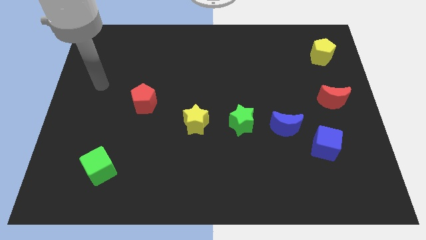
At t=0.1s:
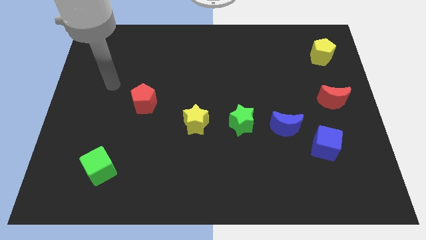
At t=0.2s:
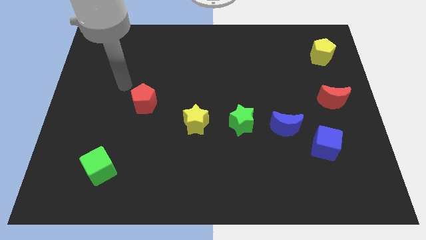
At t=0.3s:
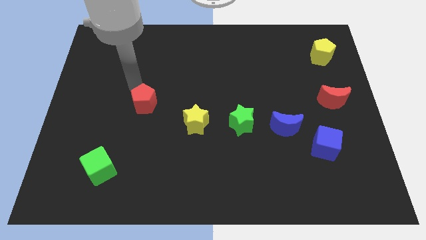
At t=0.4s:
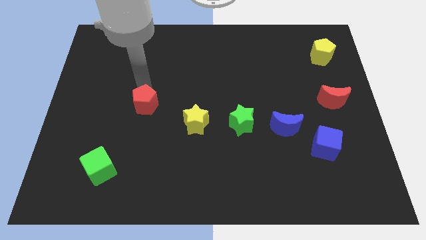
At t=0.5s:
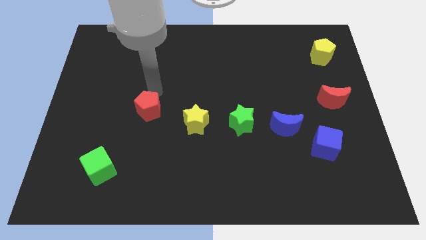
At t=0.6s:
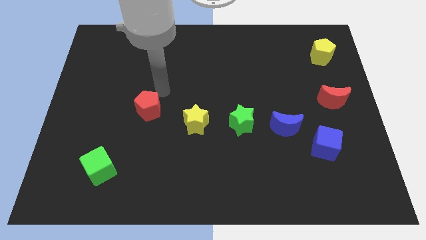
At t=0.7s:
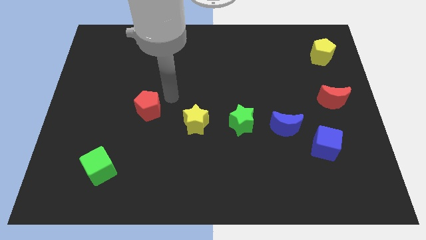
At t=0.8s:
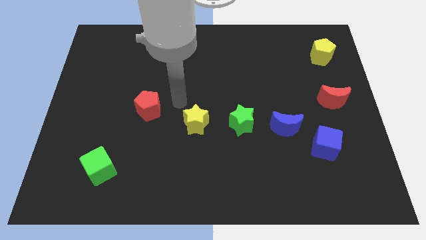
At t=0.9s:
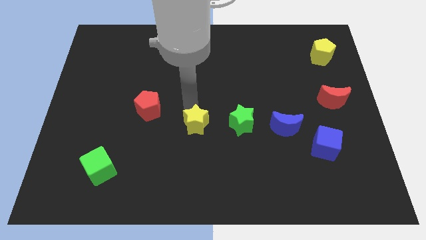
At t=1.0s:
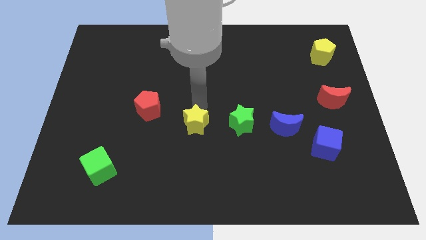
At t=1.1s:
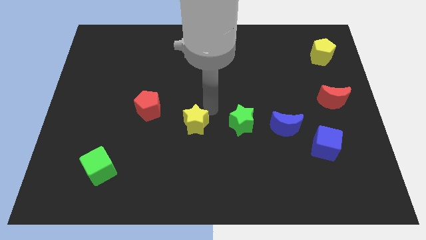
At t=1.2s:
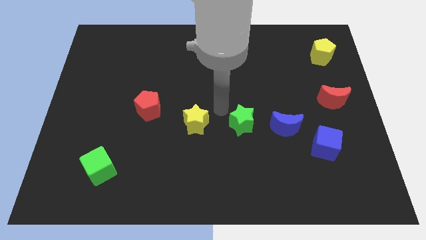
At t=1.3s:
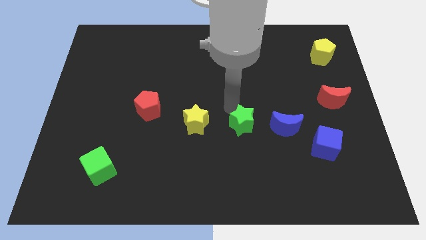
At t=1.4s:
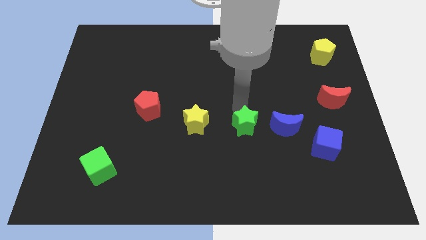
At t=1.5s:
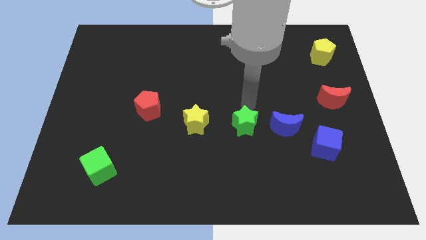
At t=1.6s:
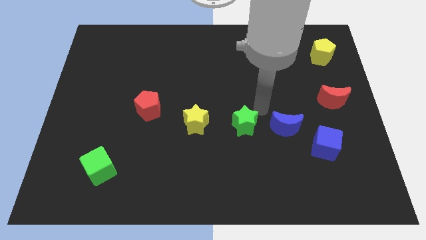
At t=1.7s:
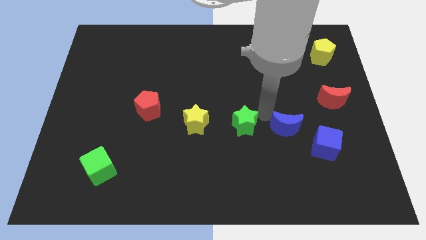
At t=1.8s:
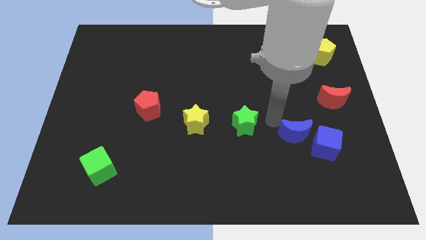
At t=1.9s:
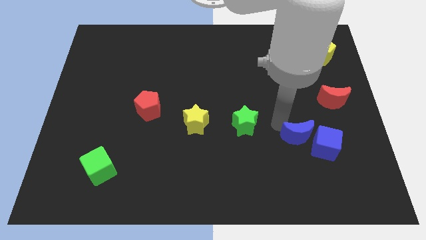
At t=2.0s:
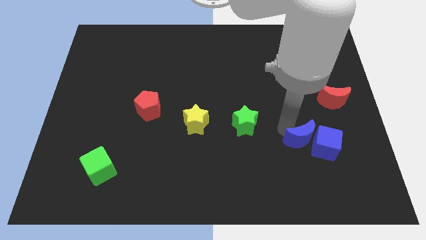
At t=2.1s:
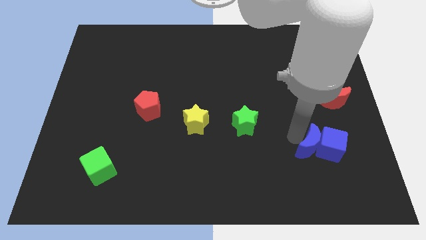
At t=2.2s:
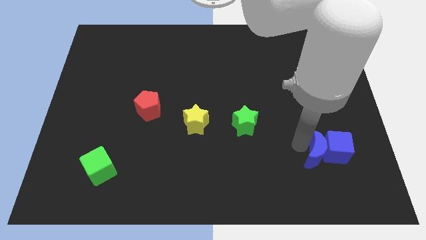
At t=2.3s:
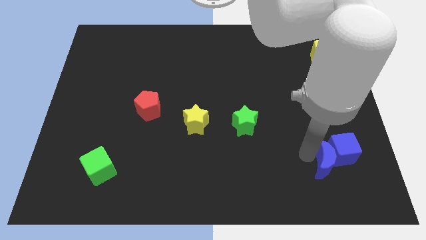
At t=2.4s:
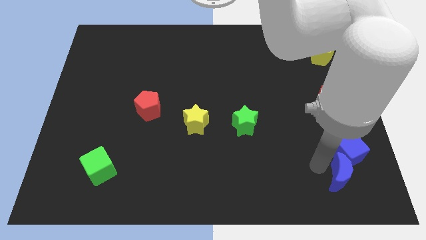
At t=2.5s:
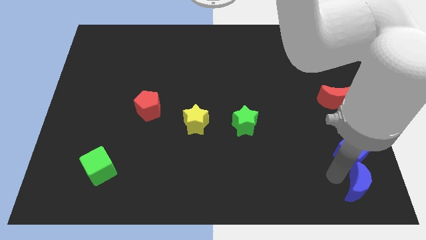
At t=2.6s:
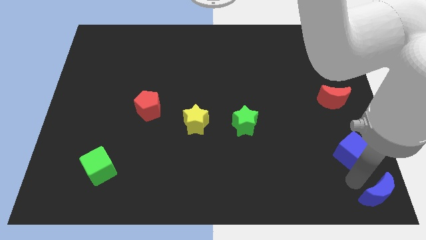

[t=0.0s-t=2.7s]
pull the blue cube apart from the blue moon

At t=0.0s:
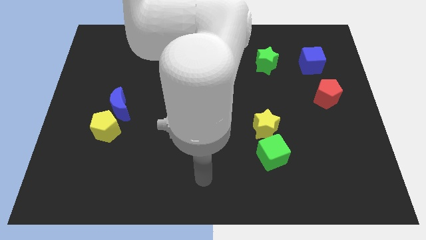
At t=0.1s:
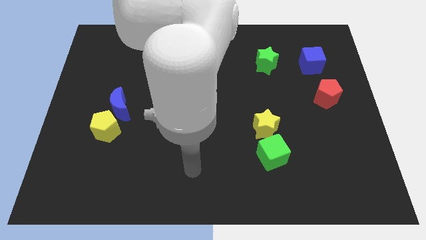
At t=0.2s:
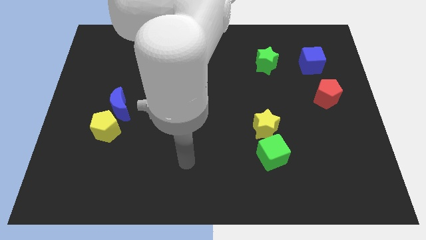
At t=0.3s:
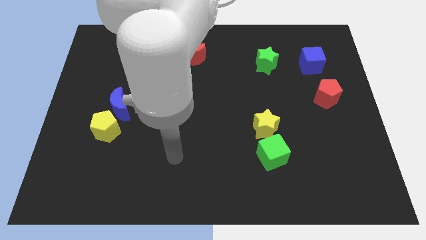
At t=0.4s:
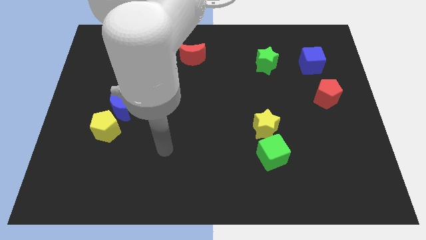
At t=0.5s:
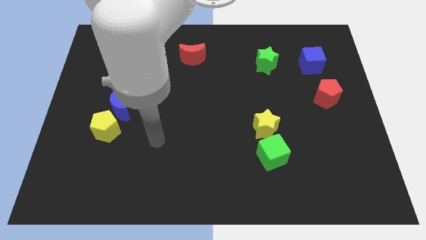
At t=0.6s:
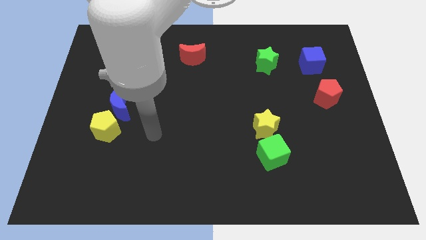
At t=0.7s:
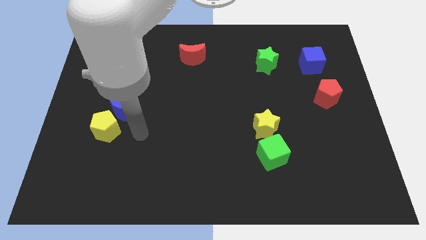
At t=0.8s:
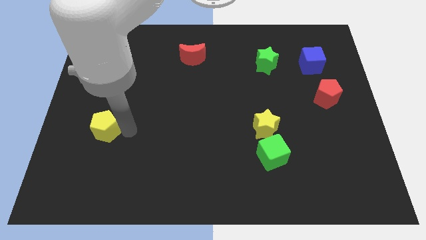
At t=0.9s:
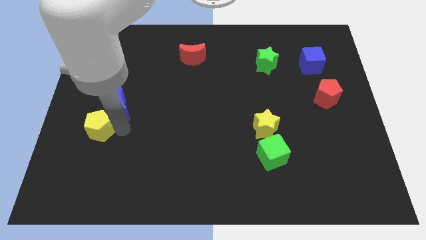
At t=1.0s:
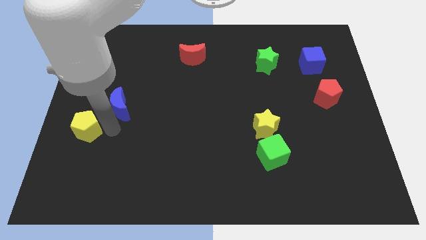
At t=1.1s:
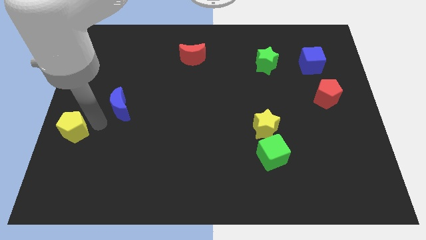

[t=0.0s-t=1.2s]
separate the blue moon from the yellow pentagon

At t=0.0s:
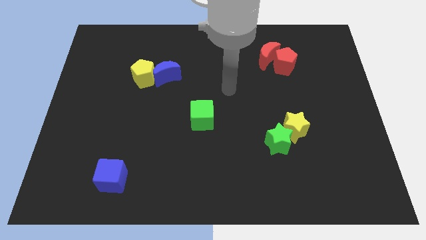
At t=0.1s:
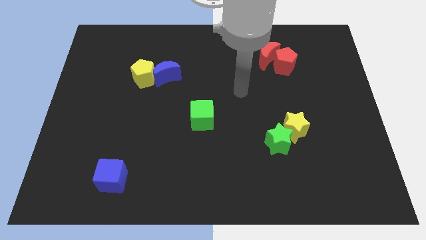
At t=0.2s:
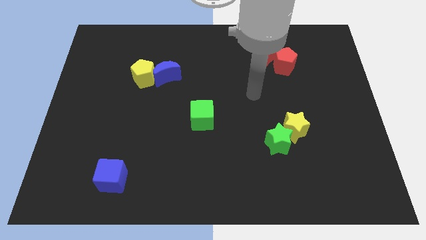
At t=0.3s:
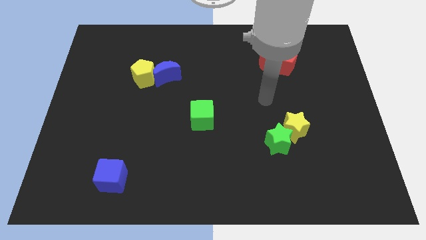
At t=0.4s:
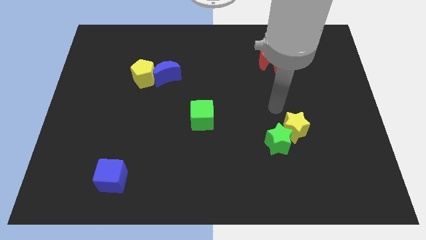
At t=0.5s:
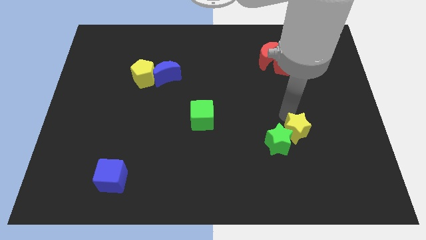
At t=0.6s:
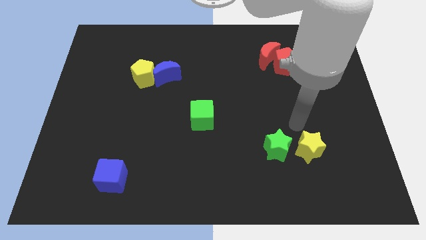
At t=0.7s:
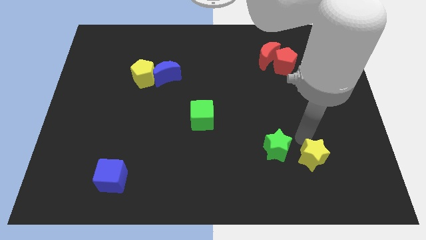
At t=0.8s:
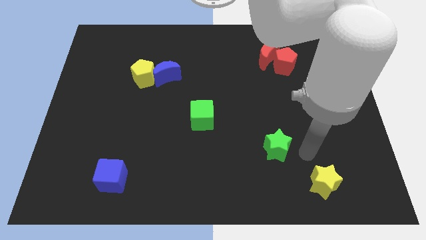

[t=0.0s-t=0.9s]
separate the green star from the yellow star

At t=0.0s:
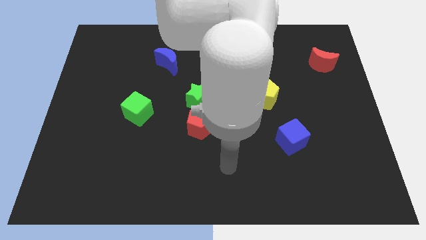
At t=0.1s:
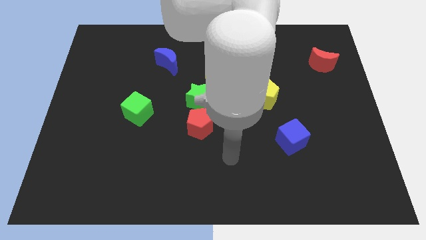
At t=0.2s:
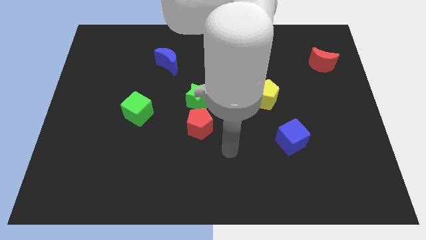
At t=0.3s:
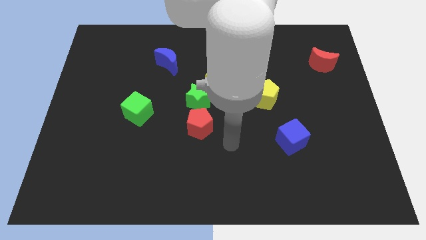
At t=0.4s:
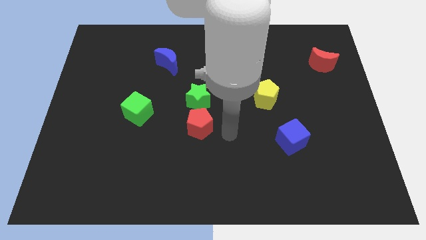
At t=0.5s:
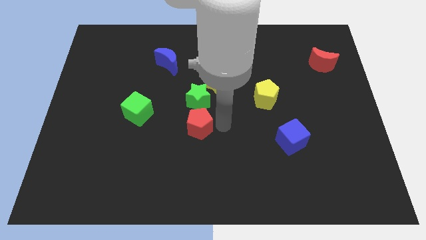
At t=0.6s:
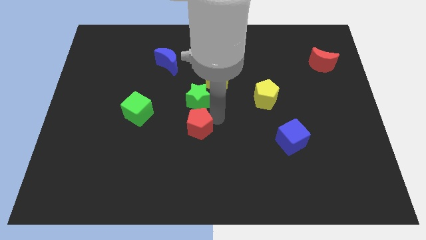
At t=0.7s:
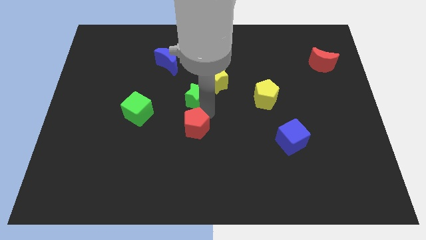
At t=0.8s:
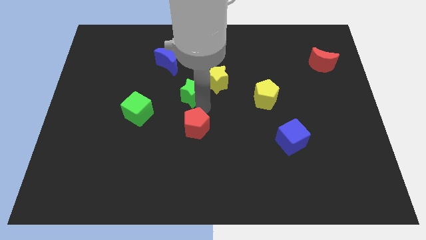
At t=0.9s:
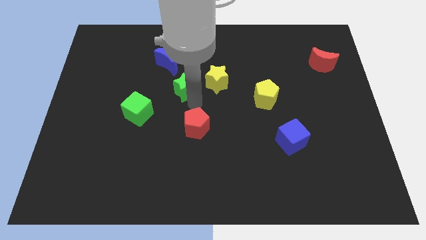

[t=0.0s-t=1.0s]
move the red pentagon away from the green star

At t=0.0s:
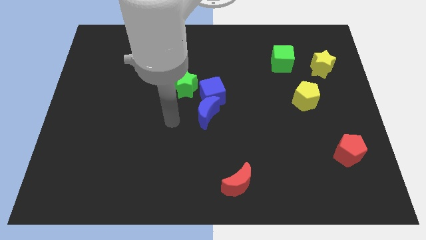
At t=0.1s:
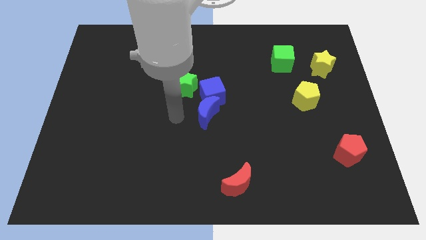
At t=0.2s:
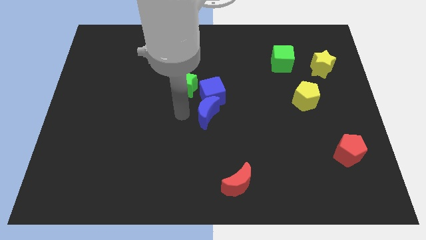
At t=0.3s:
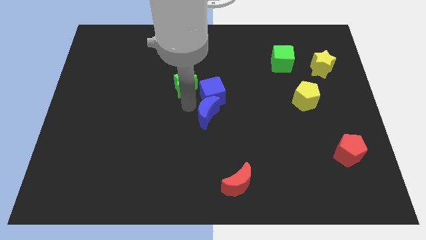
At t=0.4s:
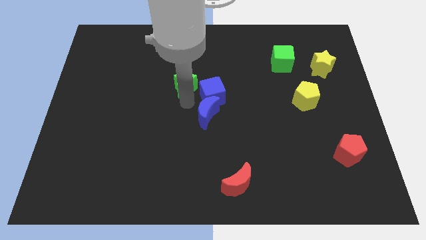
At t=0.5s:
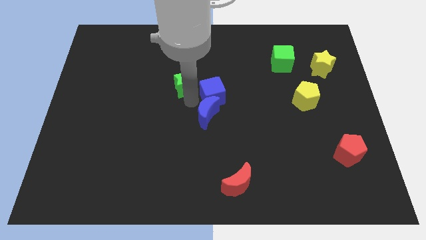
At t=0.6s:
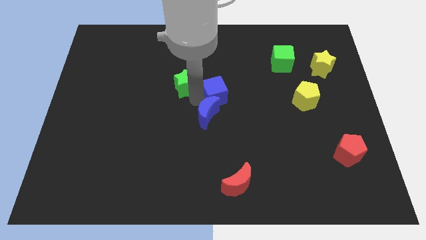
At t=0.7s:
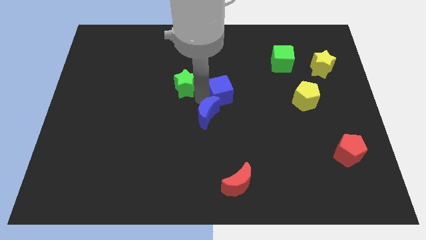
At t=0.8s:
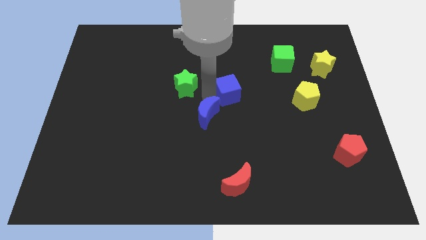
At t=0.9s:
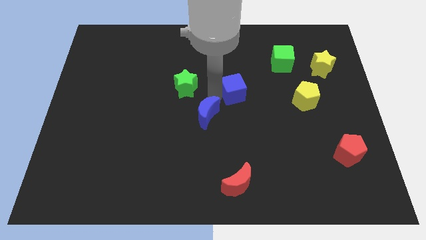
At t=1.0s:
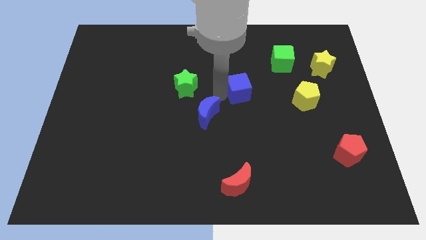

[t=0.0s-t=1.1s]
pull the blue cube apart from the blue moon and green star

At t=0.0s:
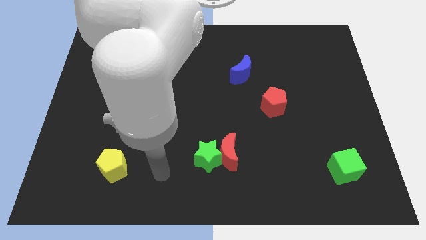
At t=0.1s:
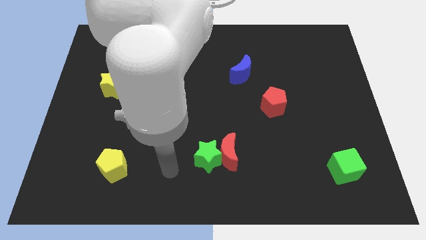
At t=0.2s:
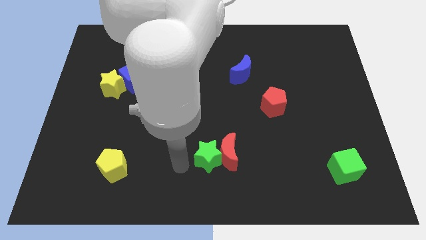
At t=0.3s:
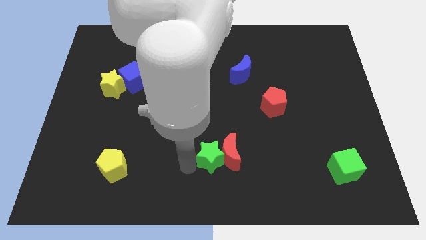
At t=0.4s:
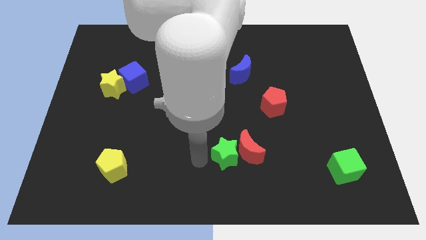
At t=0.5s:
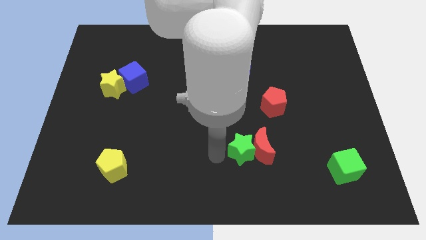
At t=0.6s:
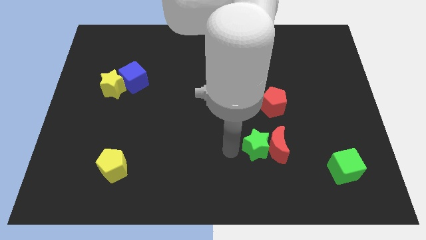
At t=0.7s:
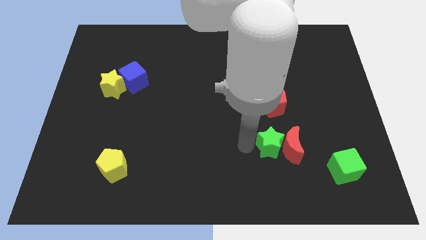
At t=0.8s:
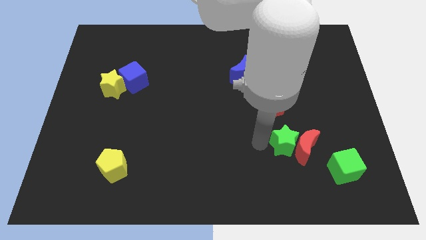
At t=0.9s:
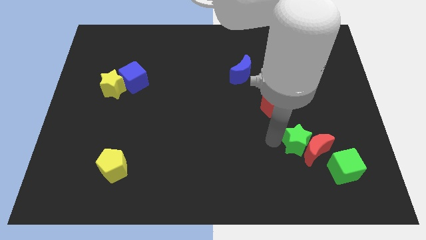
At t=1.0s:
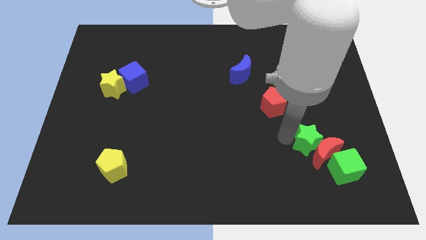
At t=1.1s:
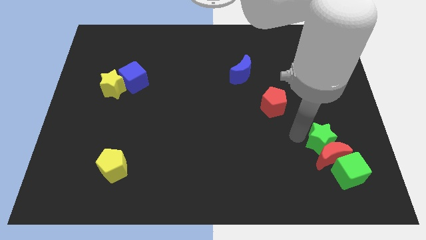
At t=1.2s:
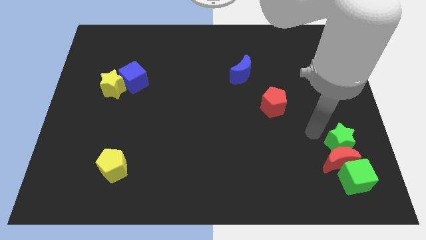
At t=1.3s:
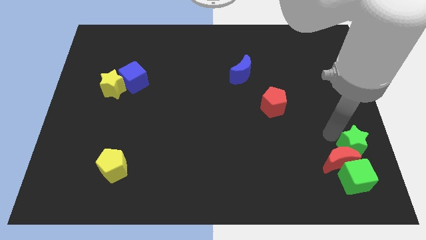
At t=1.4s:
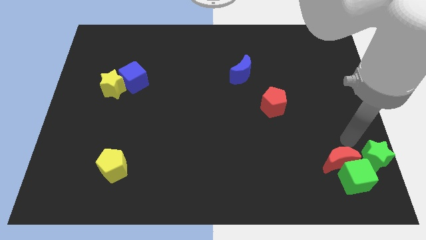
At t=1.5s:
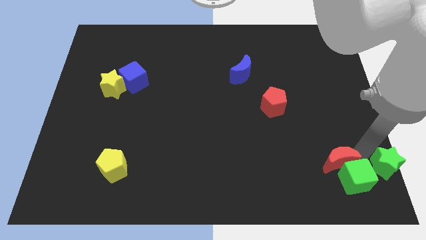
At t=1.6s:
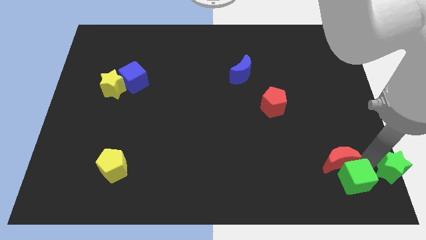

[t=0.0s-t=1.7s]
move the red moon away from the green star

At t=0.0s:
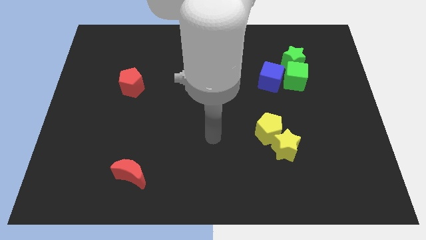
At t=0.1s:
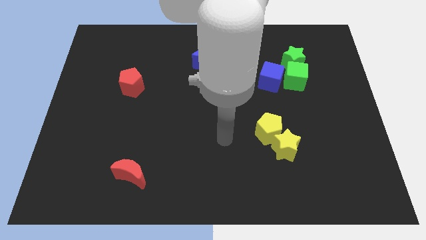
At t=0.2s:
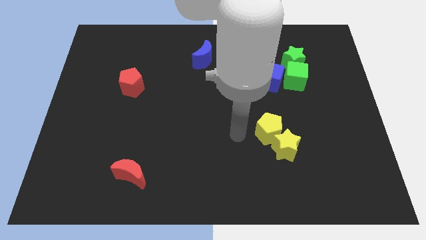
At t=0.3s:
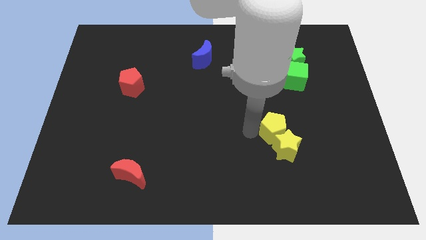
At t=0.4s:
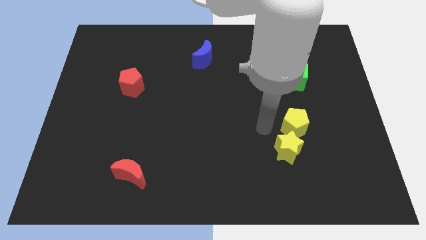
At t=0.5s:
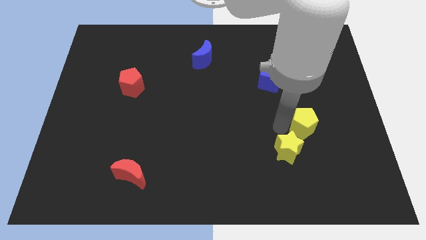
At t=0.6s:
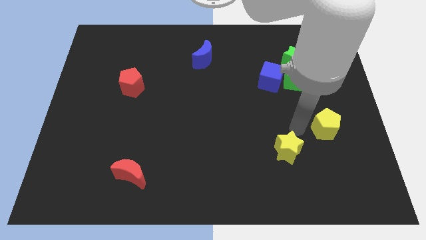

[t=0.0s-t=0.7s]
pull the yellow star apart from the yellow pentagon
